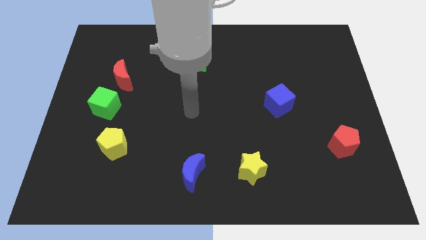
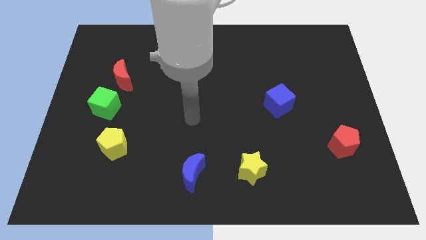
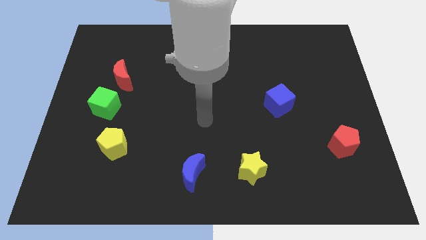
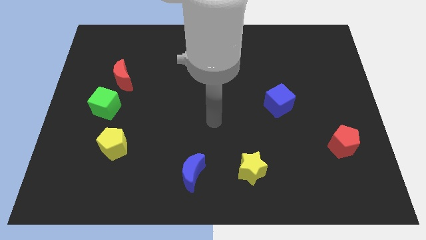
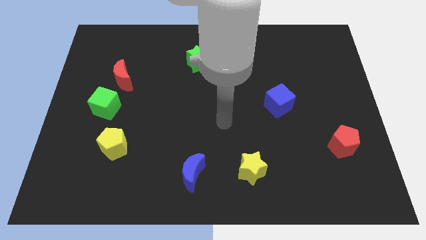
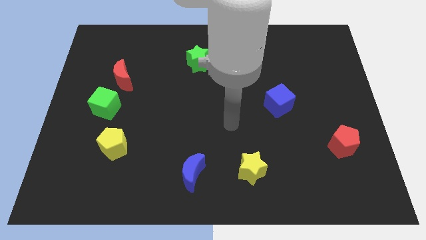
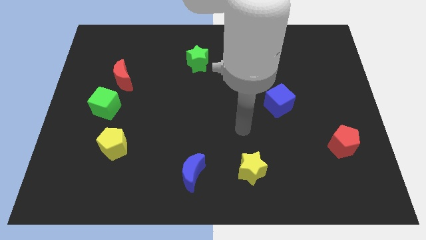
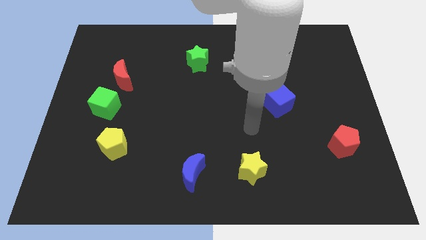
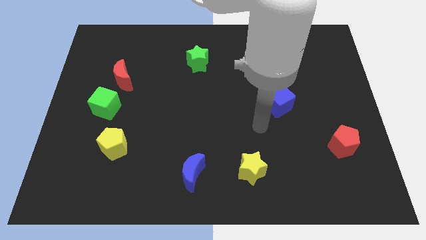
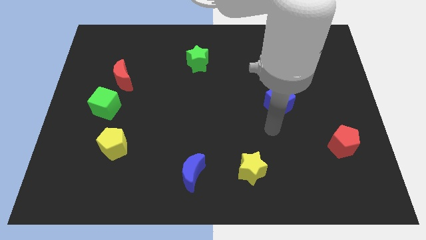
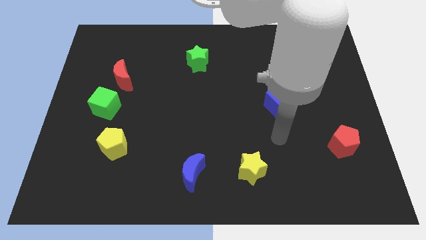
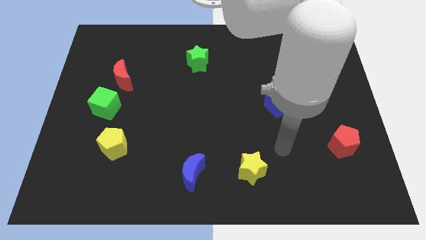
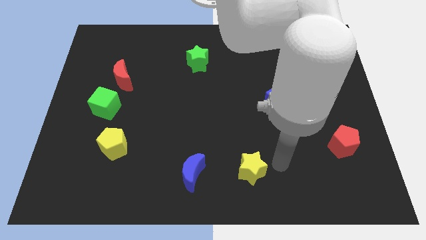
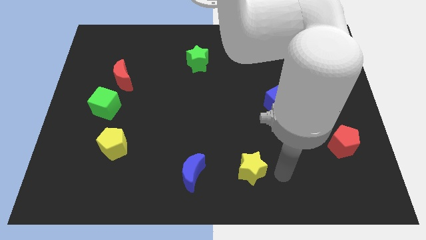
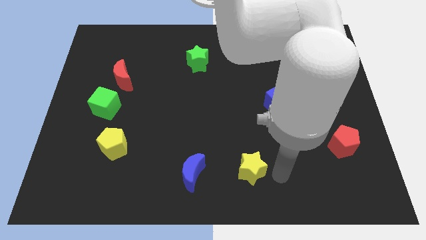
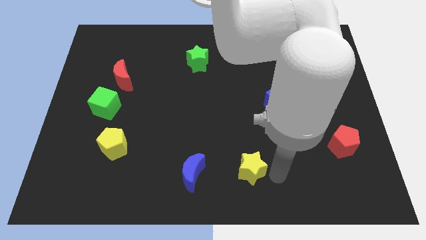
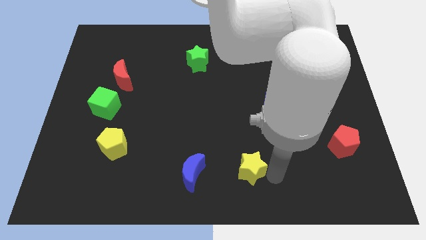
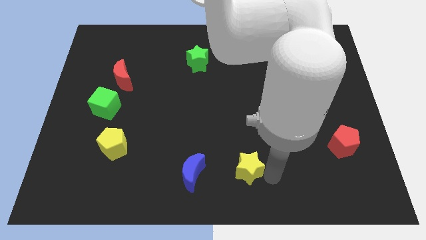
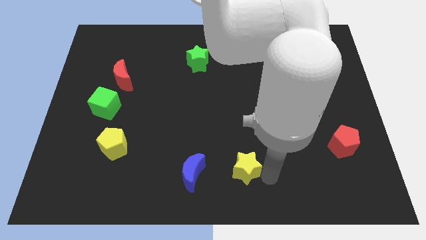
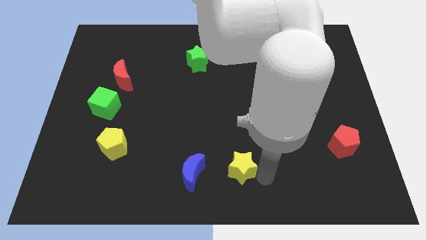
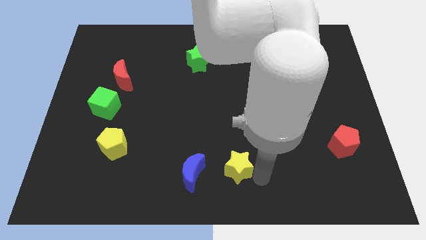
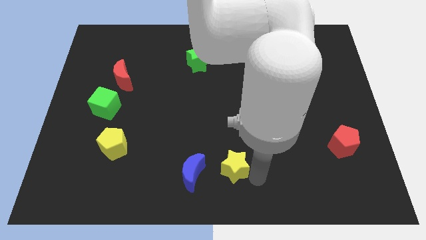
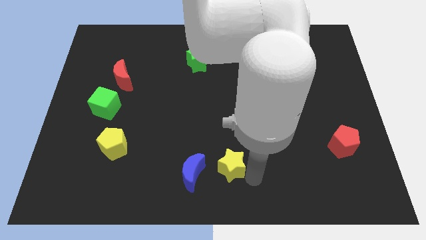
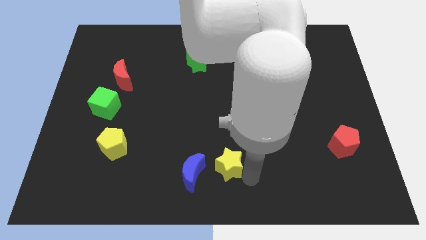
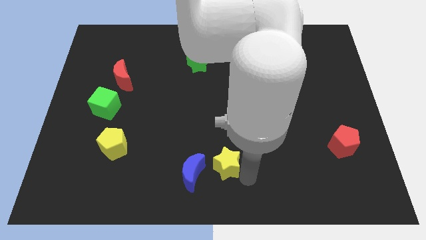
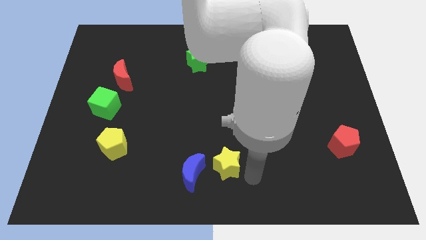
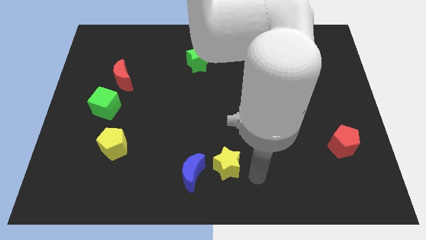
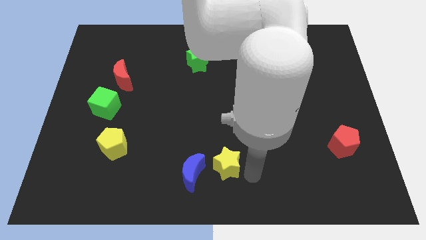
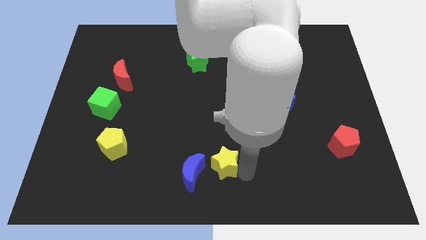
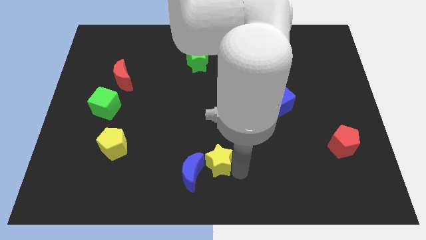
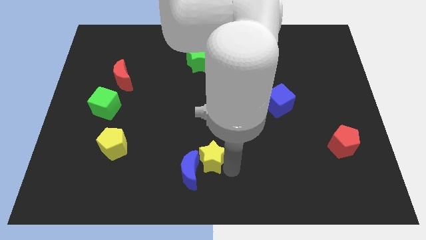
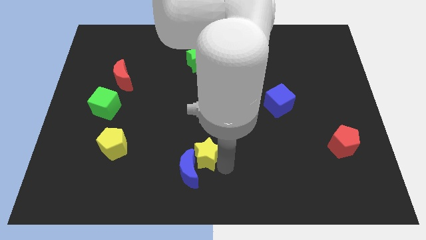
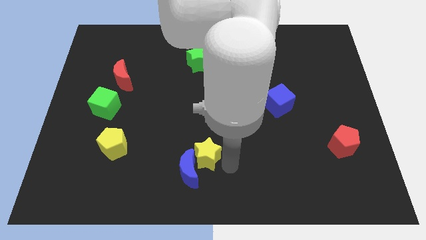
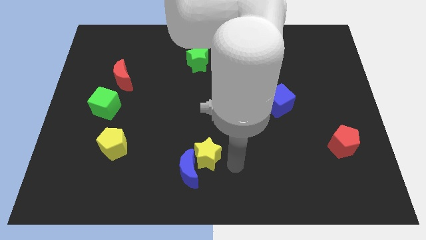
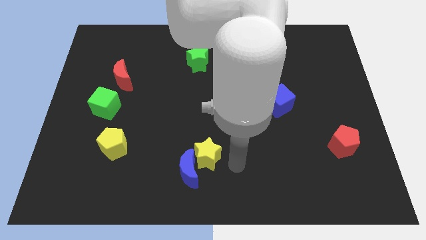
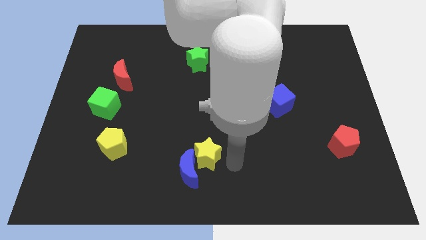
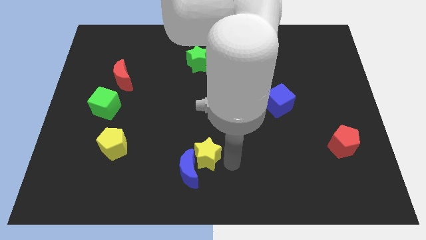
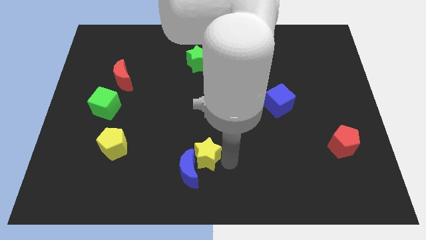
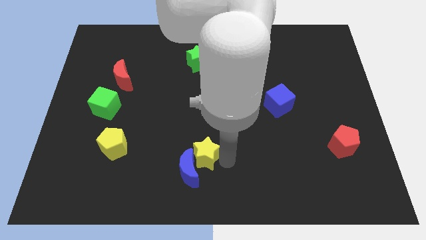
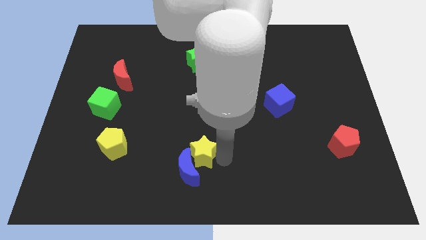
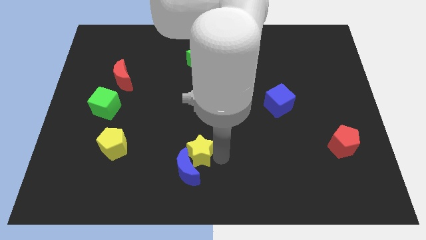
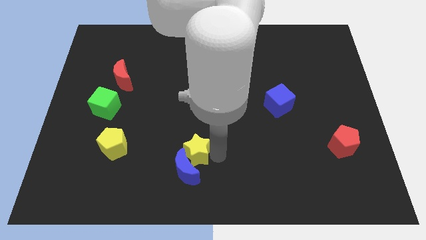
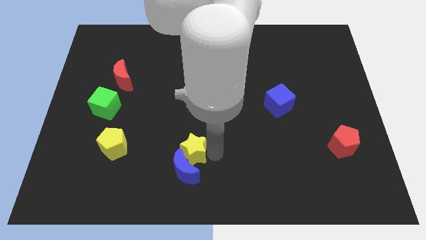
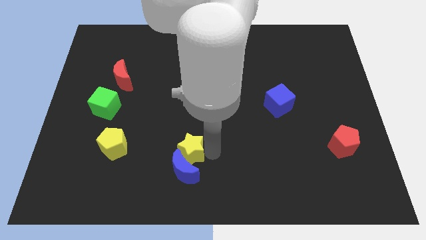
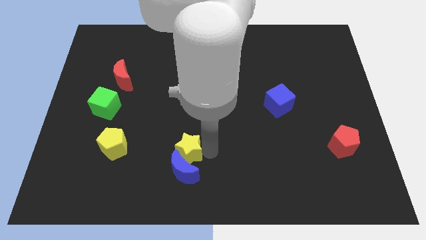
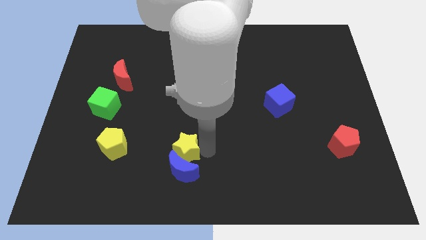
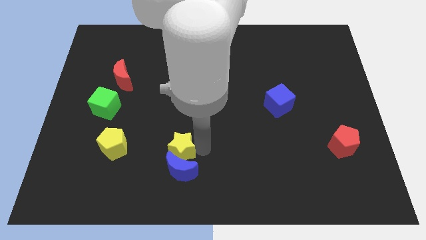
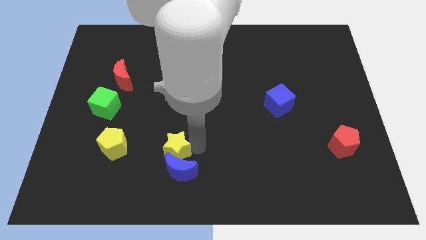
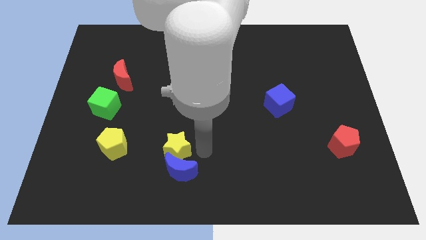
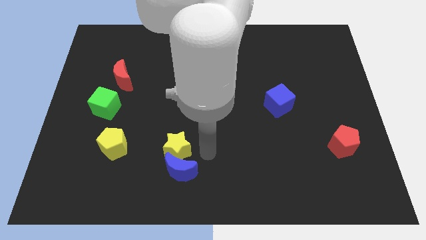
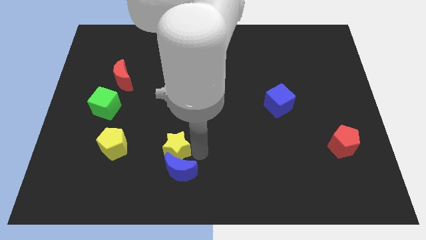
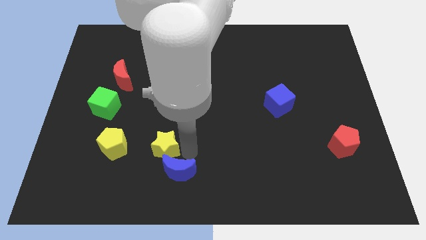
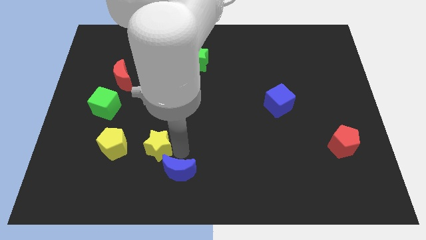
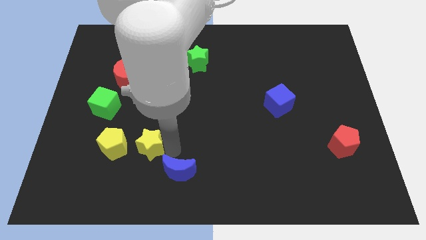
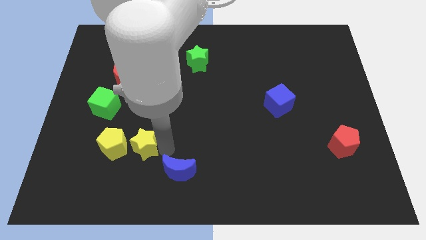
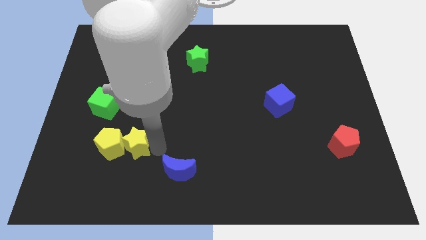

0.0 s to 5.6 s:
push the yellow star close to the yellow pentagon

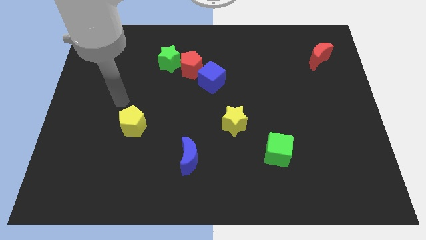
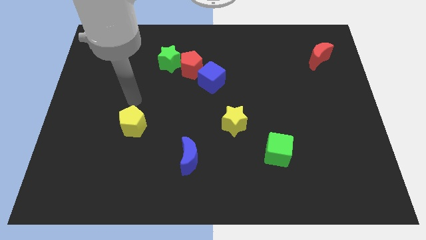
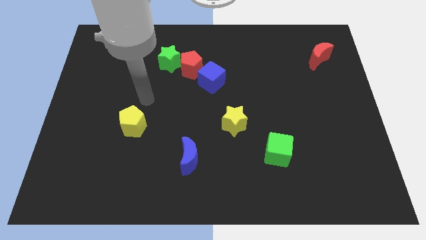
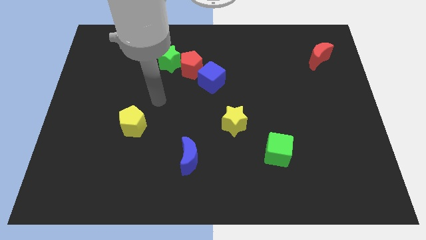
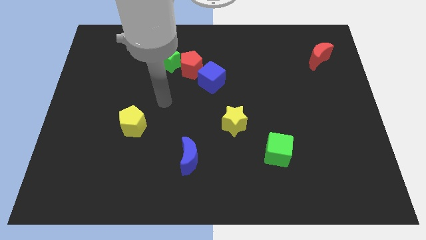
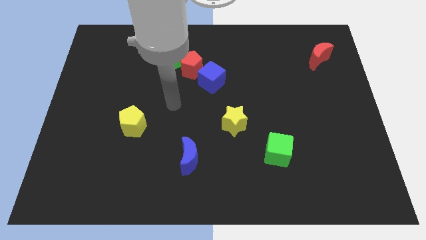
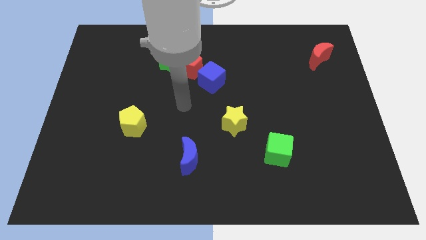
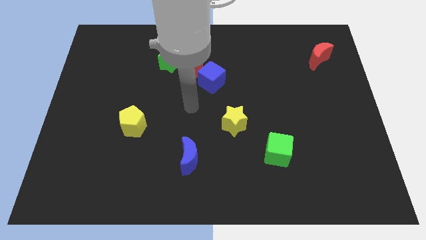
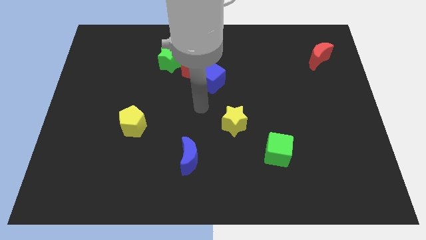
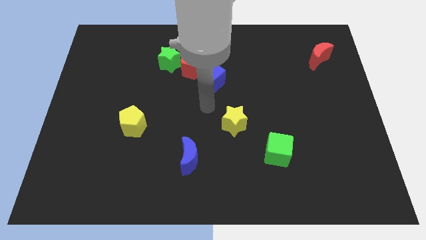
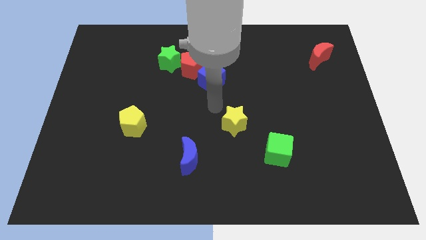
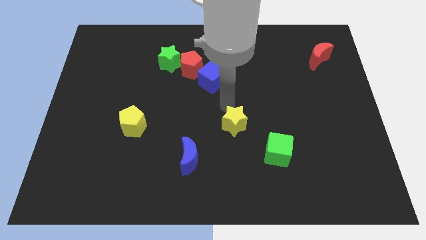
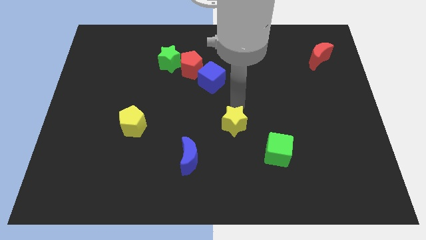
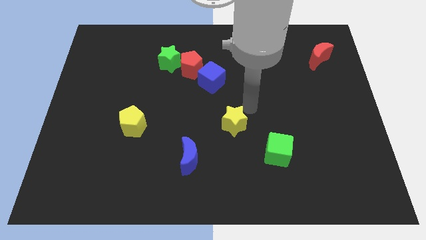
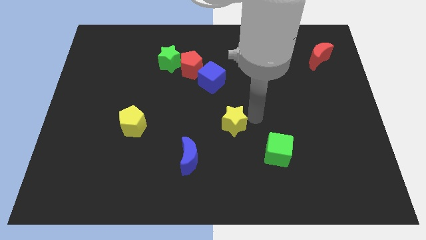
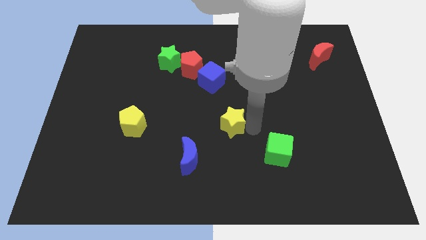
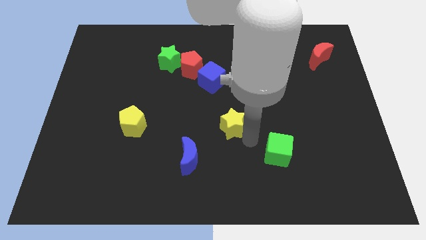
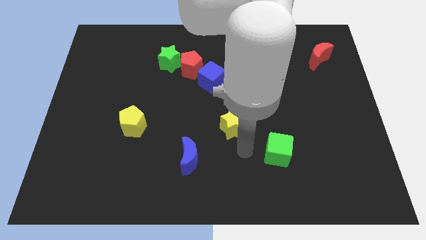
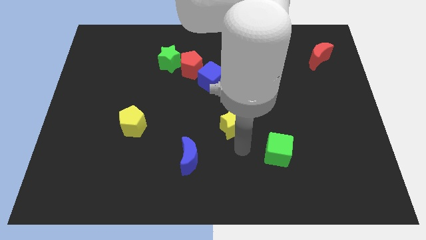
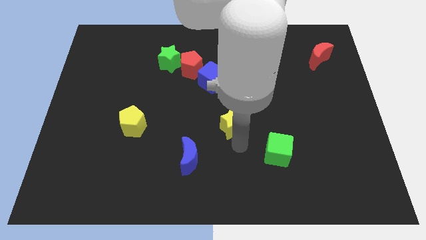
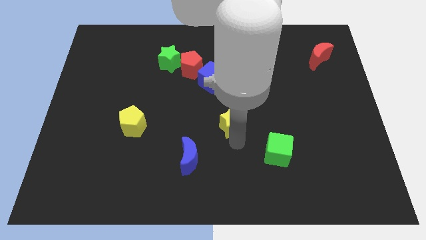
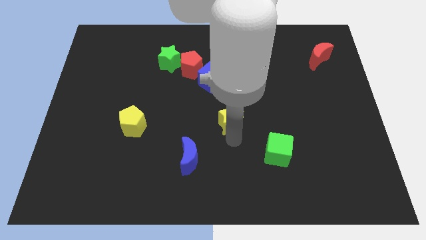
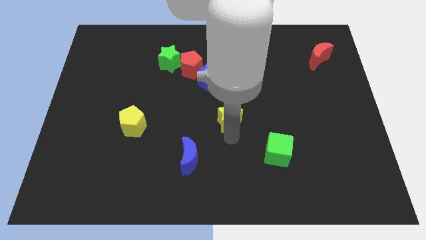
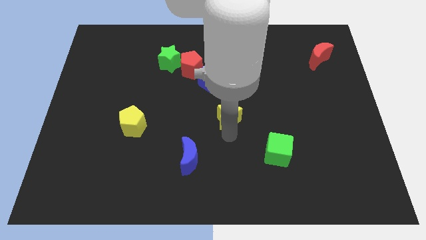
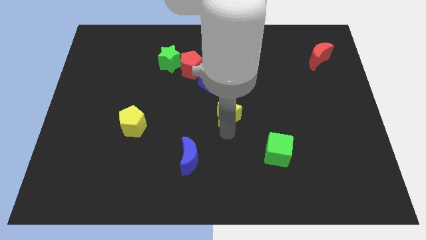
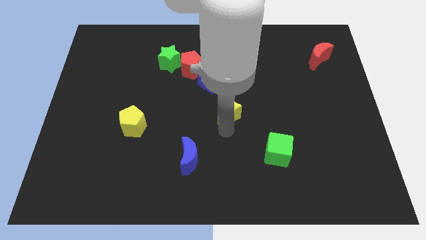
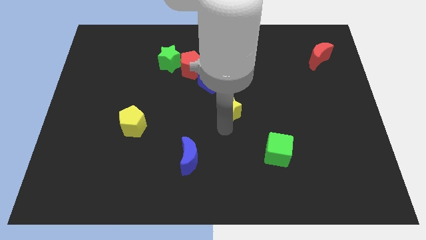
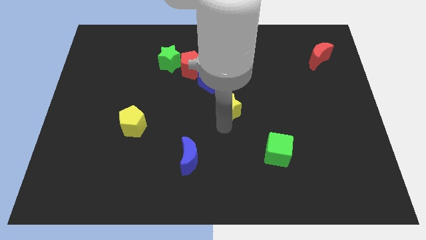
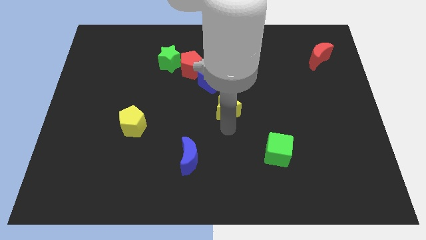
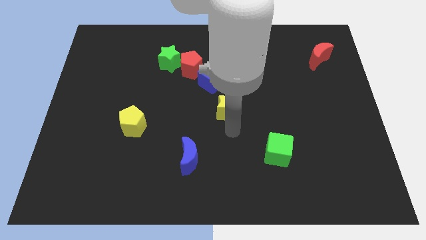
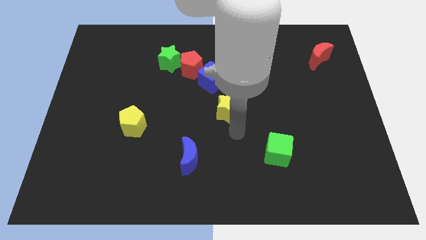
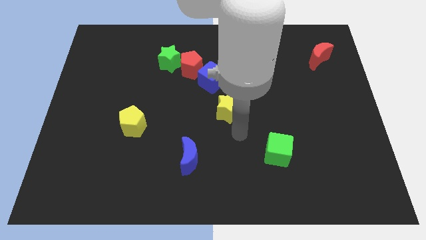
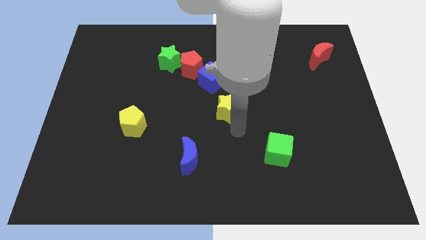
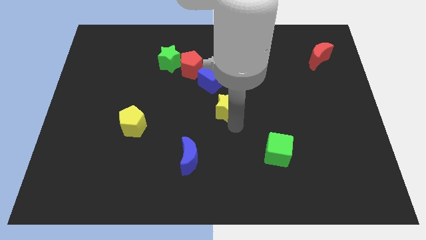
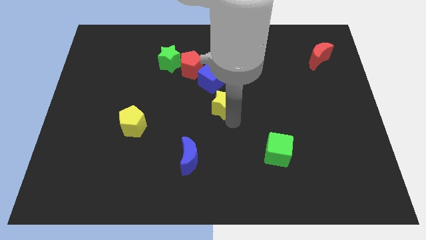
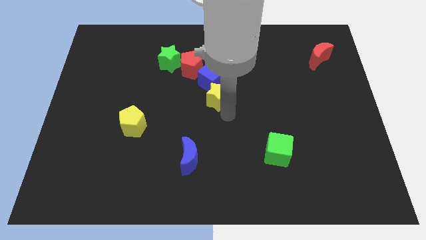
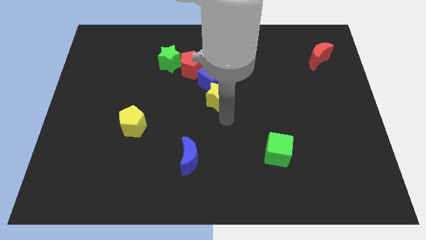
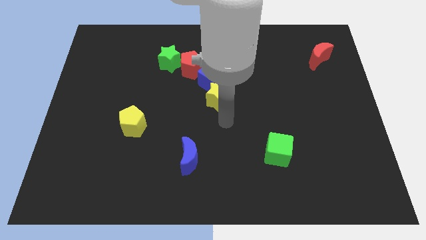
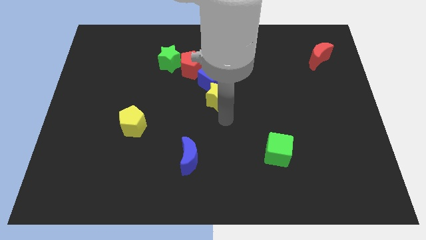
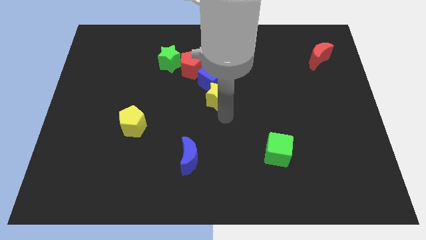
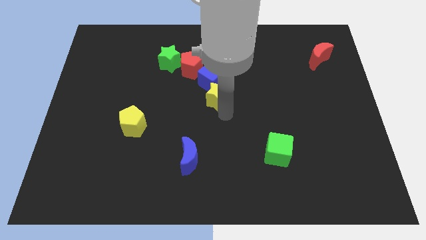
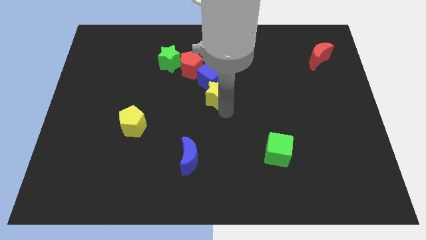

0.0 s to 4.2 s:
slide the yellow star towards the blue cube
